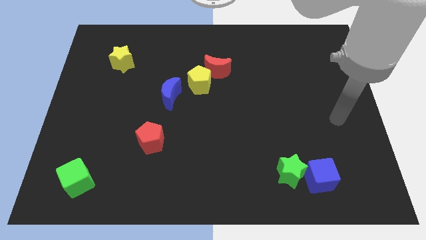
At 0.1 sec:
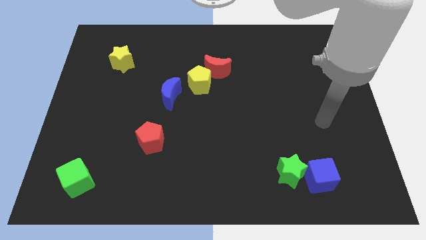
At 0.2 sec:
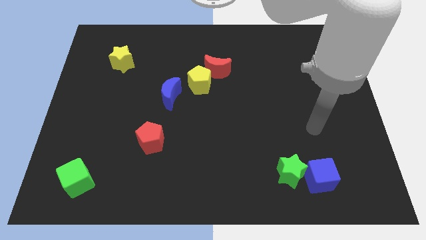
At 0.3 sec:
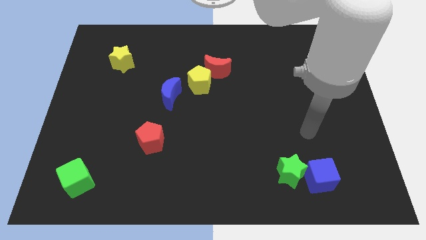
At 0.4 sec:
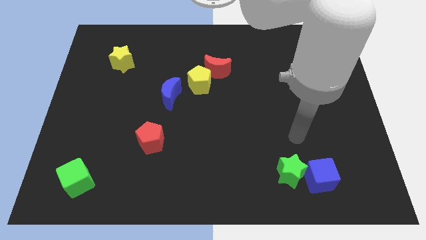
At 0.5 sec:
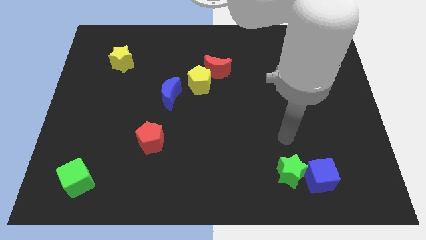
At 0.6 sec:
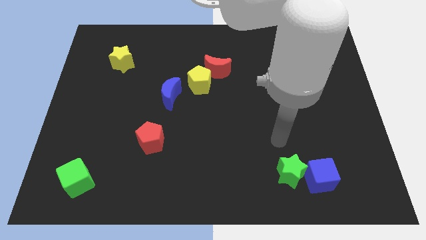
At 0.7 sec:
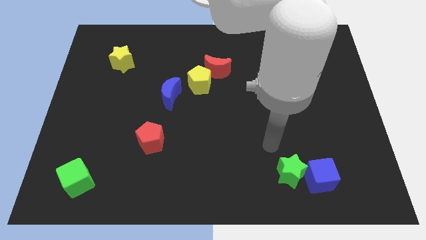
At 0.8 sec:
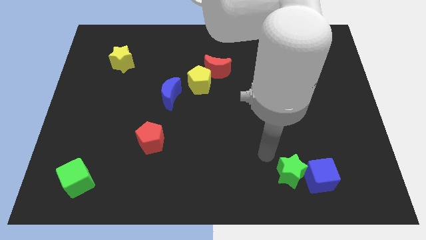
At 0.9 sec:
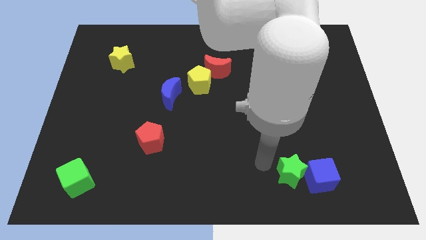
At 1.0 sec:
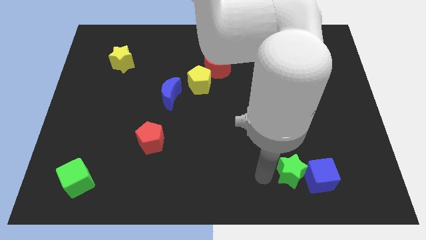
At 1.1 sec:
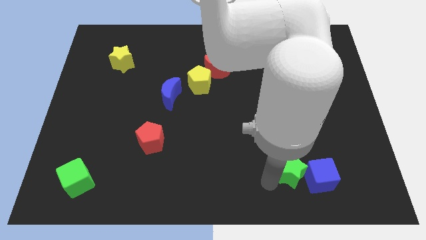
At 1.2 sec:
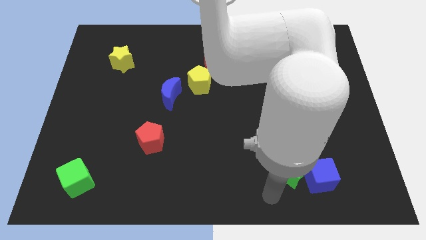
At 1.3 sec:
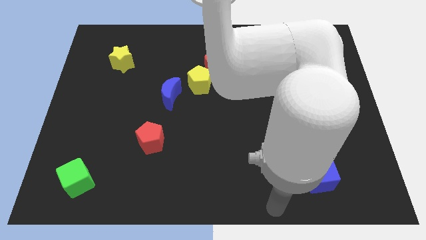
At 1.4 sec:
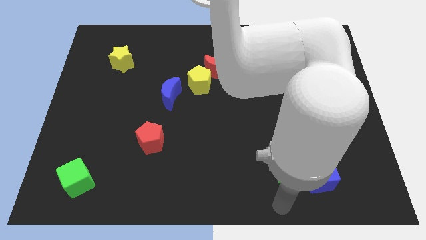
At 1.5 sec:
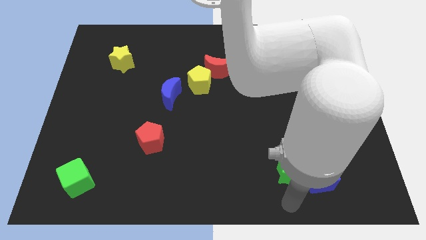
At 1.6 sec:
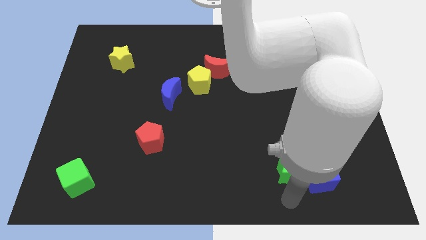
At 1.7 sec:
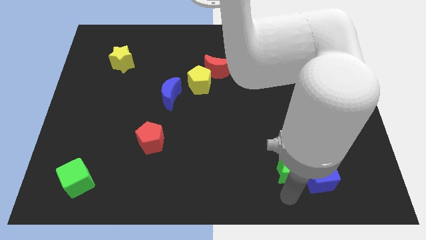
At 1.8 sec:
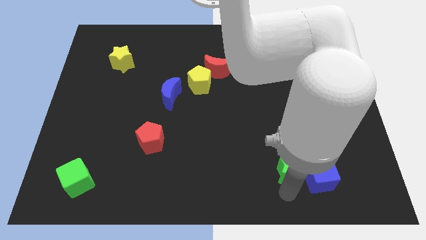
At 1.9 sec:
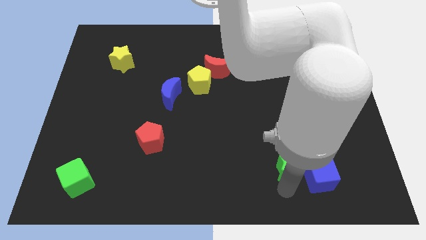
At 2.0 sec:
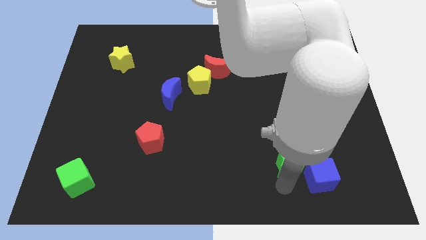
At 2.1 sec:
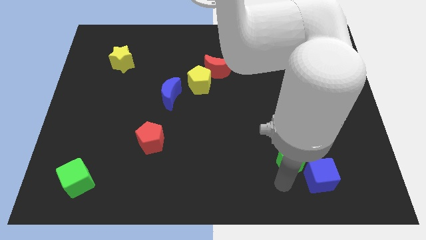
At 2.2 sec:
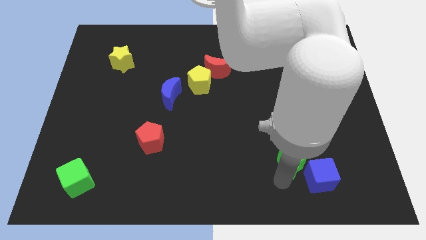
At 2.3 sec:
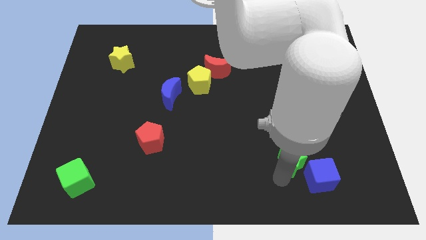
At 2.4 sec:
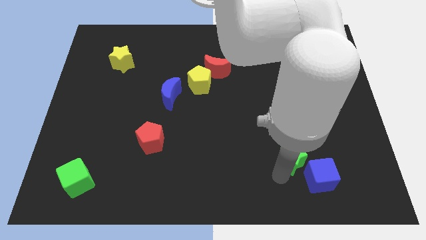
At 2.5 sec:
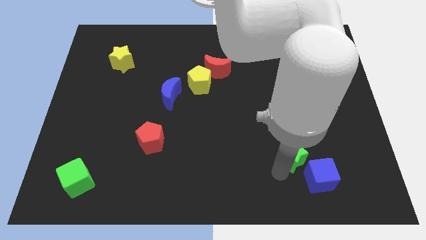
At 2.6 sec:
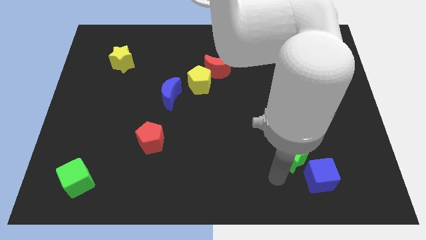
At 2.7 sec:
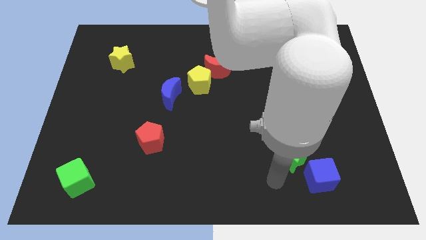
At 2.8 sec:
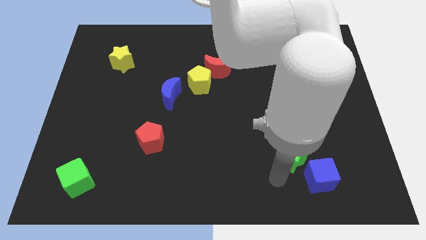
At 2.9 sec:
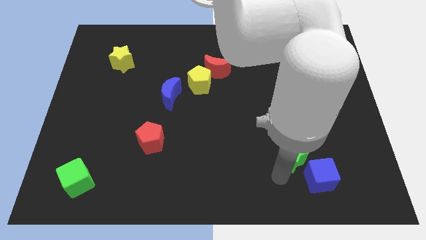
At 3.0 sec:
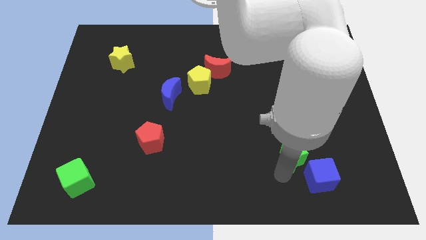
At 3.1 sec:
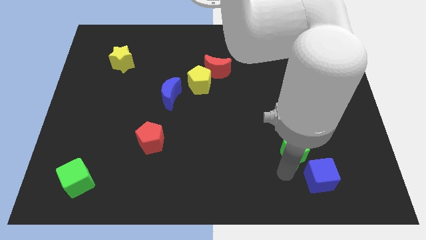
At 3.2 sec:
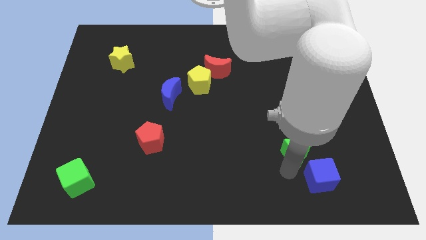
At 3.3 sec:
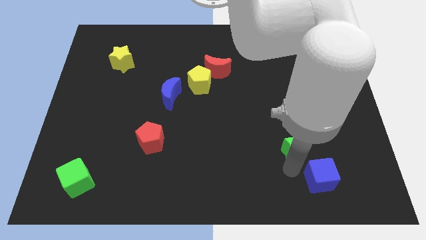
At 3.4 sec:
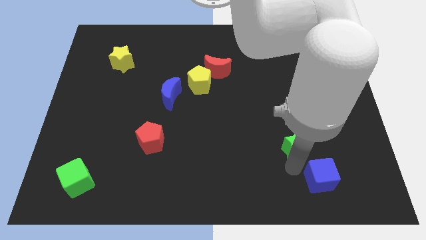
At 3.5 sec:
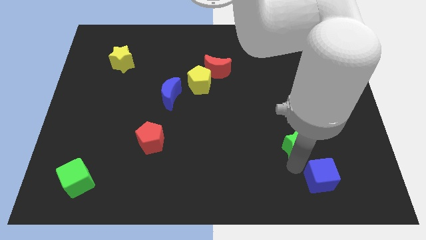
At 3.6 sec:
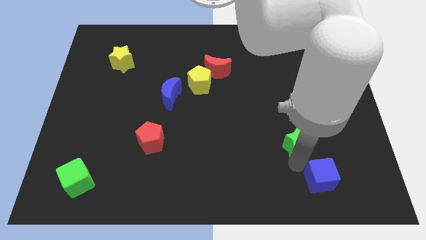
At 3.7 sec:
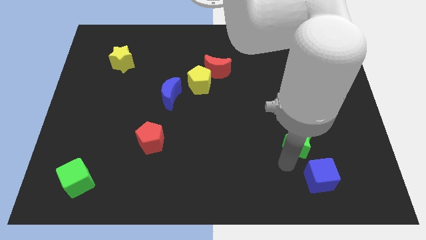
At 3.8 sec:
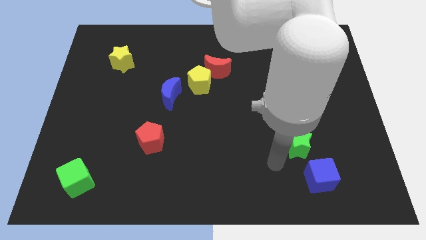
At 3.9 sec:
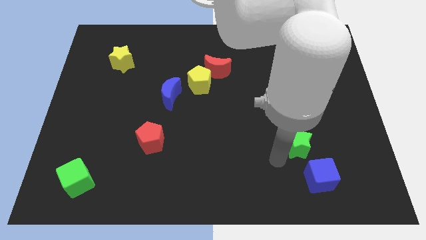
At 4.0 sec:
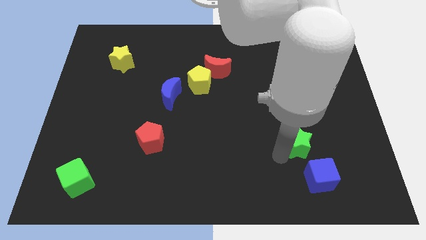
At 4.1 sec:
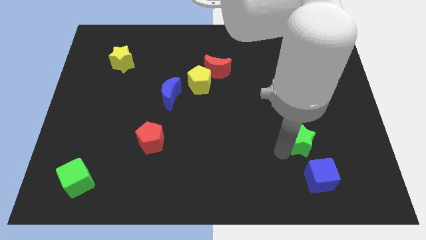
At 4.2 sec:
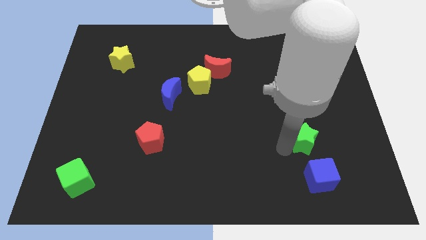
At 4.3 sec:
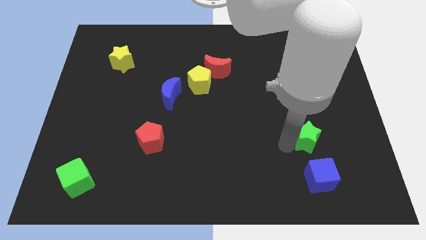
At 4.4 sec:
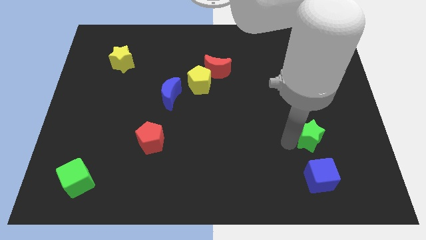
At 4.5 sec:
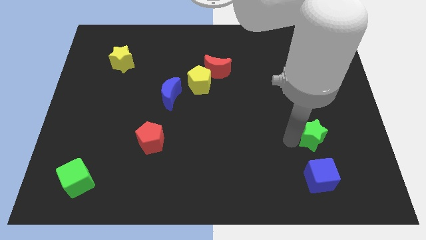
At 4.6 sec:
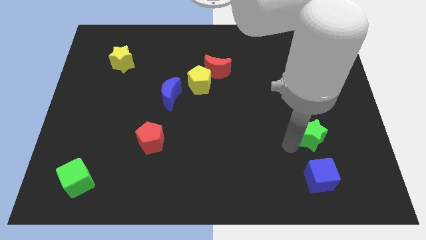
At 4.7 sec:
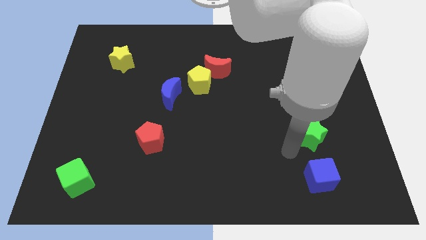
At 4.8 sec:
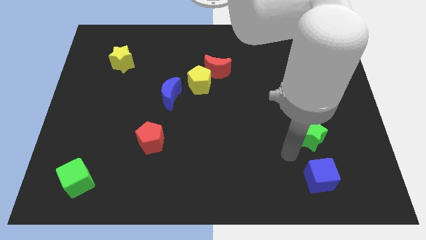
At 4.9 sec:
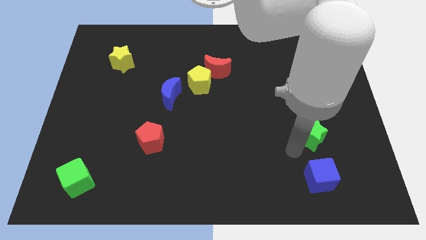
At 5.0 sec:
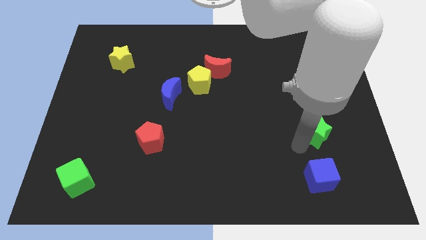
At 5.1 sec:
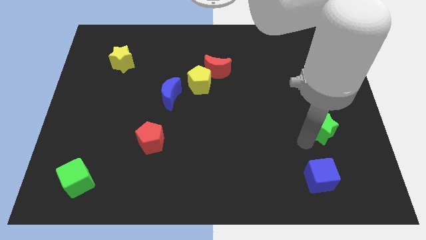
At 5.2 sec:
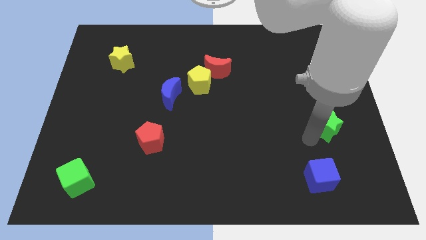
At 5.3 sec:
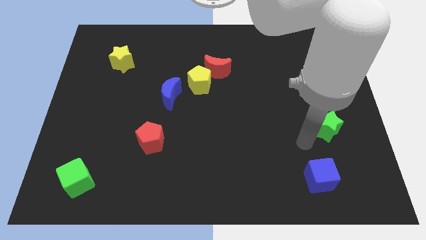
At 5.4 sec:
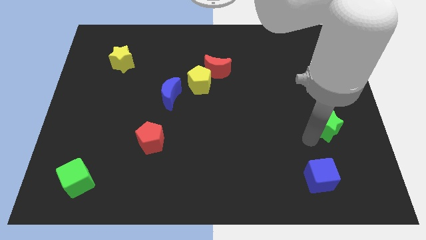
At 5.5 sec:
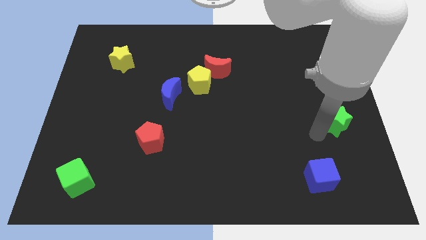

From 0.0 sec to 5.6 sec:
slide the green star to the center right

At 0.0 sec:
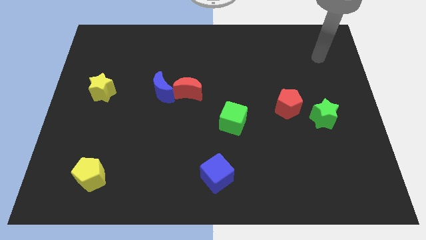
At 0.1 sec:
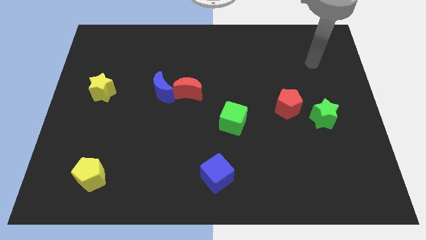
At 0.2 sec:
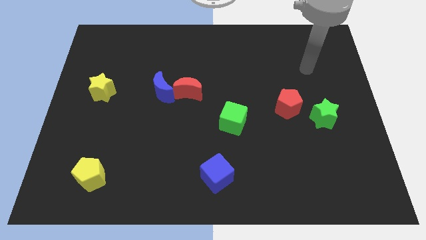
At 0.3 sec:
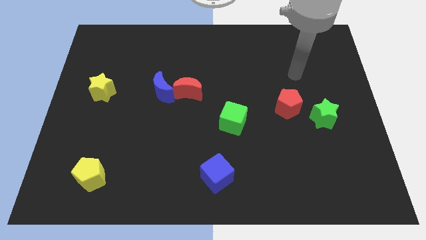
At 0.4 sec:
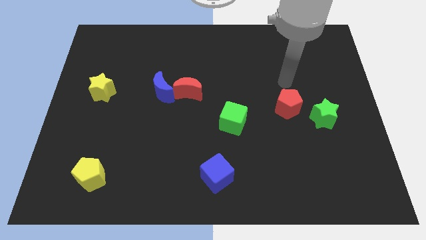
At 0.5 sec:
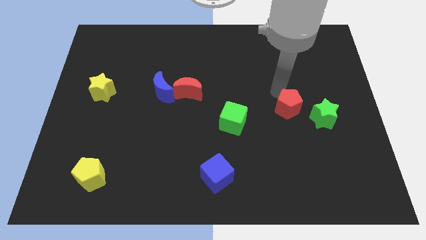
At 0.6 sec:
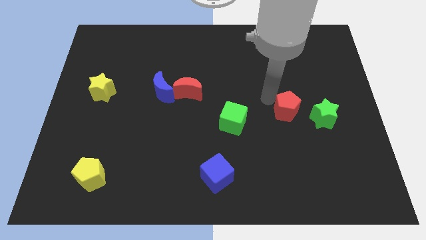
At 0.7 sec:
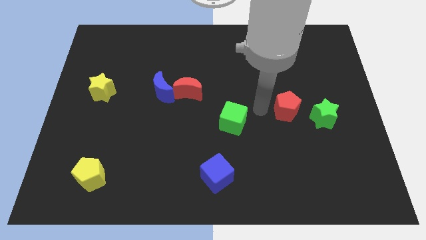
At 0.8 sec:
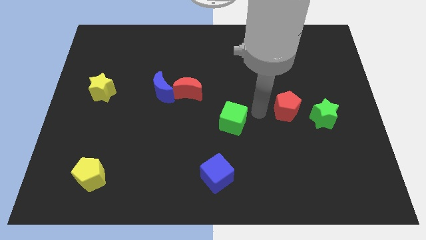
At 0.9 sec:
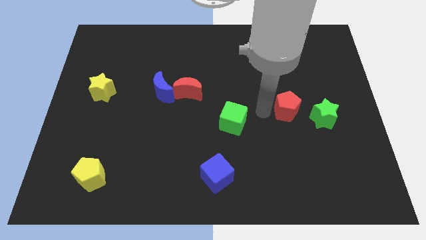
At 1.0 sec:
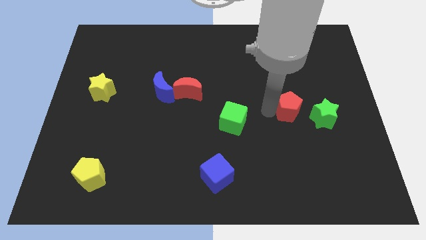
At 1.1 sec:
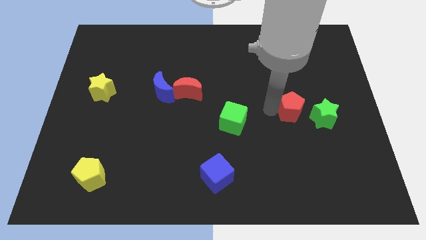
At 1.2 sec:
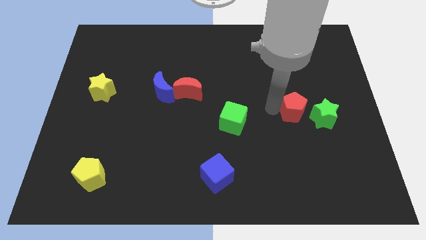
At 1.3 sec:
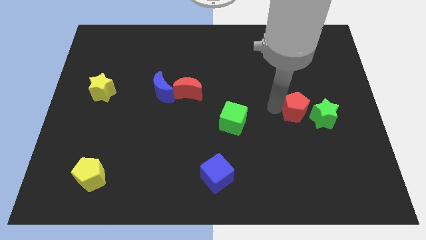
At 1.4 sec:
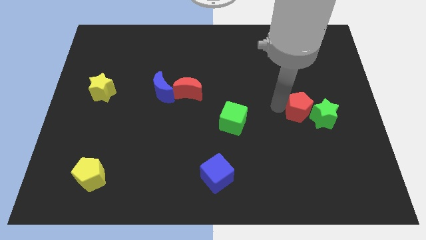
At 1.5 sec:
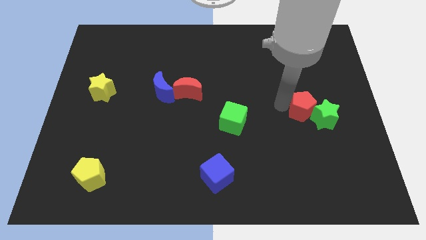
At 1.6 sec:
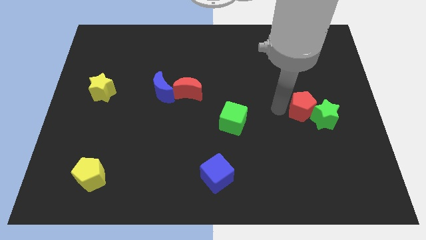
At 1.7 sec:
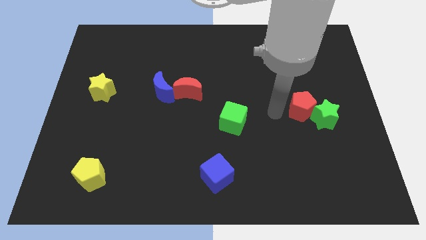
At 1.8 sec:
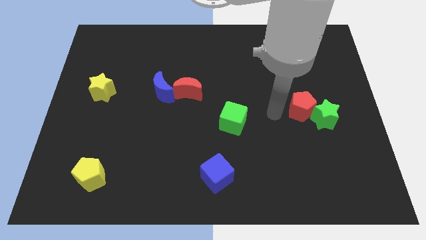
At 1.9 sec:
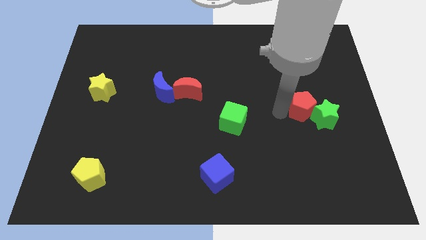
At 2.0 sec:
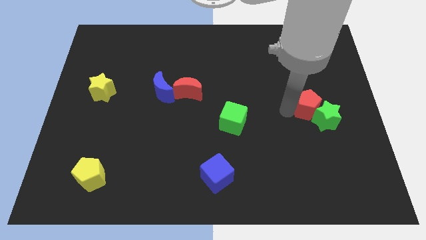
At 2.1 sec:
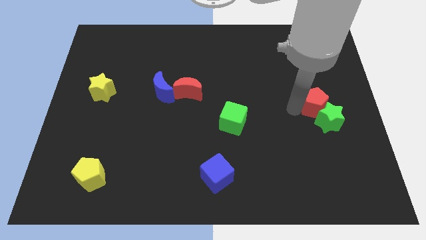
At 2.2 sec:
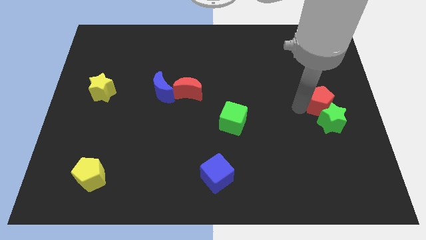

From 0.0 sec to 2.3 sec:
put the red pentagon to the center right
